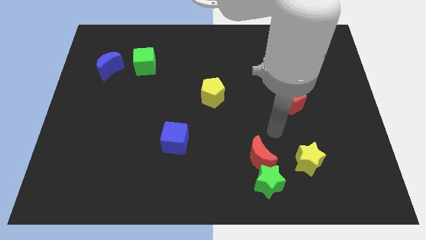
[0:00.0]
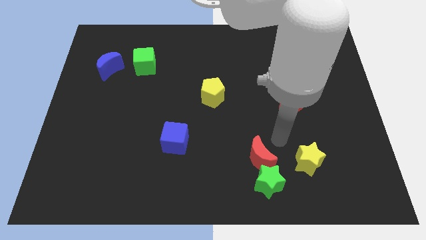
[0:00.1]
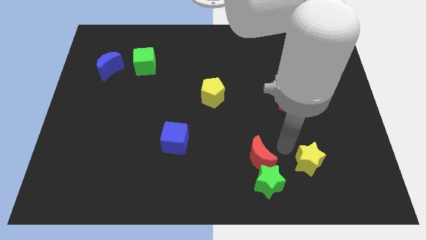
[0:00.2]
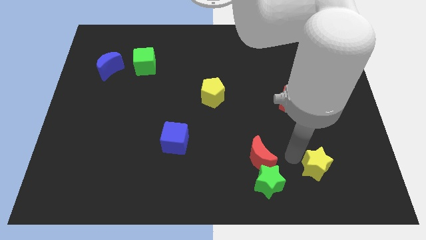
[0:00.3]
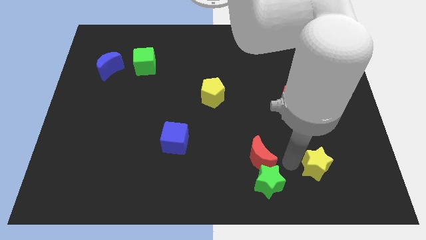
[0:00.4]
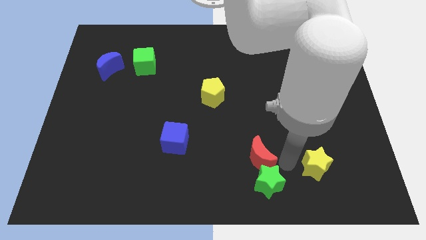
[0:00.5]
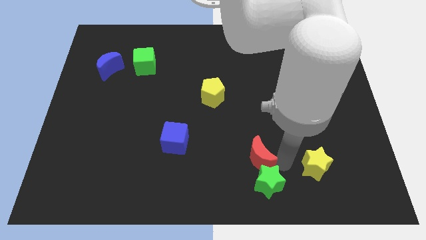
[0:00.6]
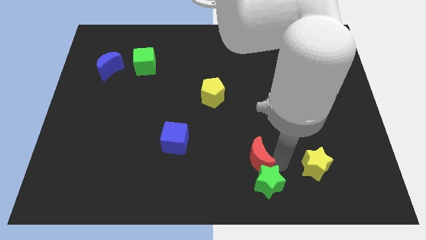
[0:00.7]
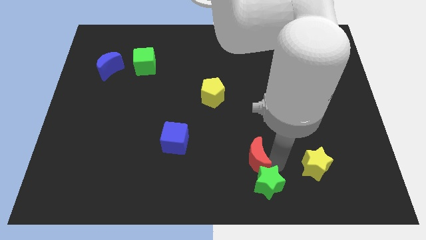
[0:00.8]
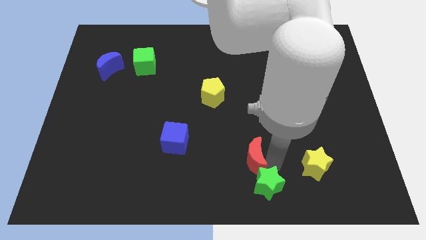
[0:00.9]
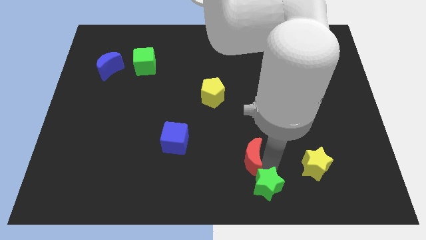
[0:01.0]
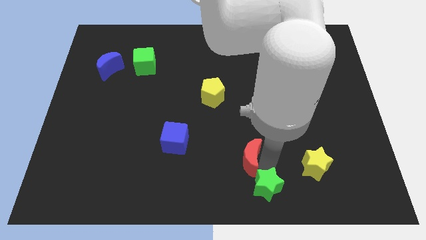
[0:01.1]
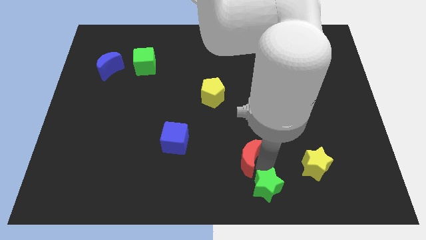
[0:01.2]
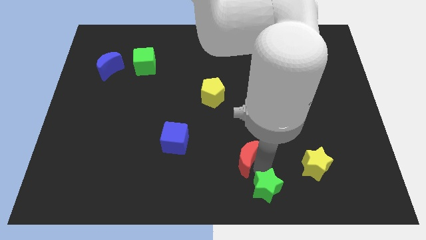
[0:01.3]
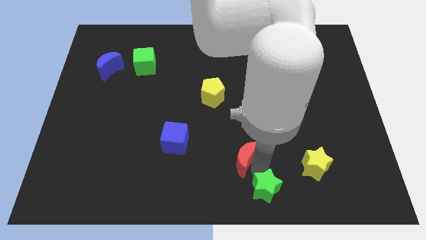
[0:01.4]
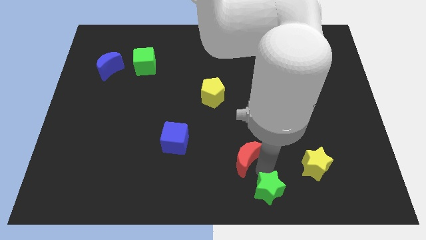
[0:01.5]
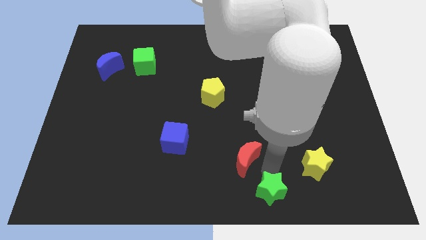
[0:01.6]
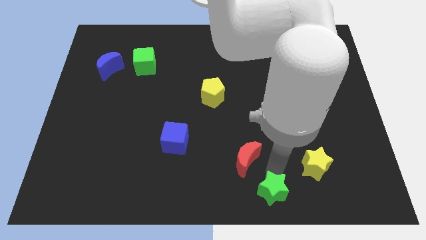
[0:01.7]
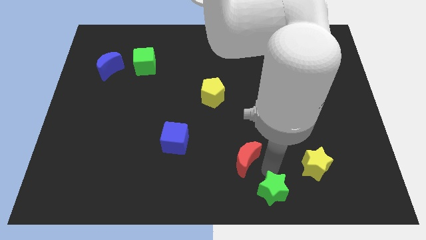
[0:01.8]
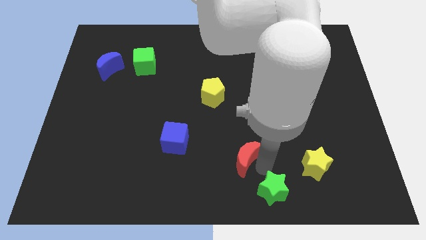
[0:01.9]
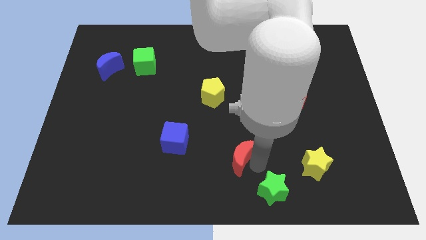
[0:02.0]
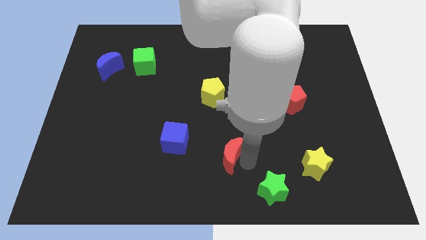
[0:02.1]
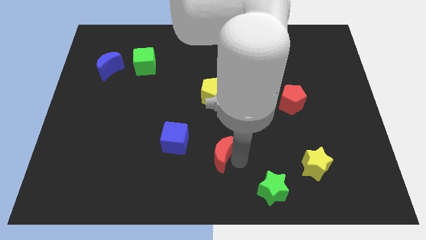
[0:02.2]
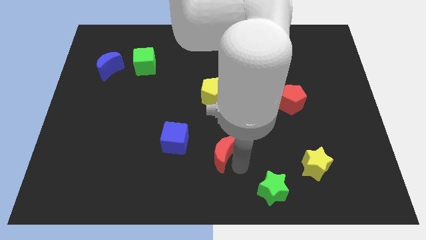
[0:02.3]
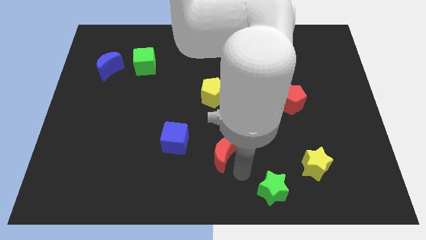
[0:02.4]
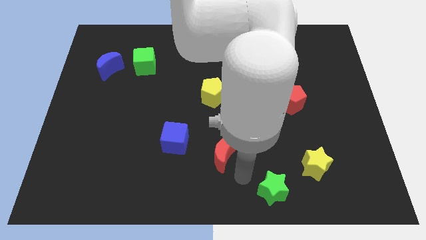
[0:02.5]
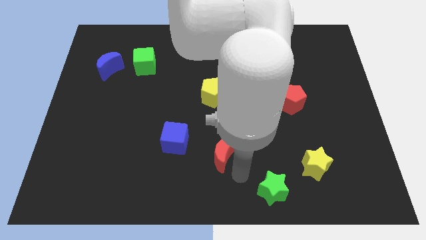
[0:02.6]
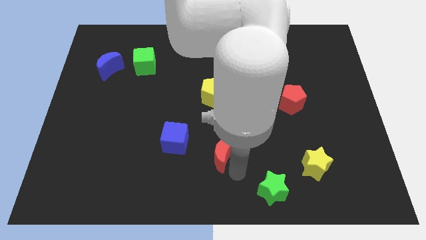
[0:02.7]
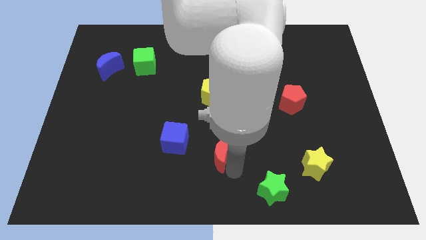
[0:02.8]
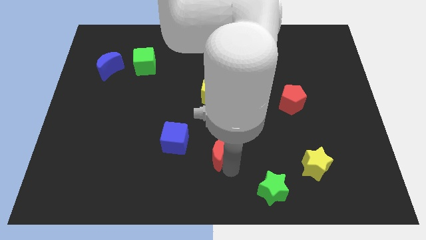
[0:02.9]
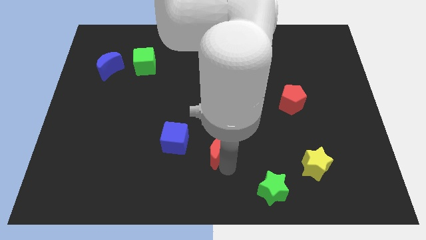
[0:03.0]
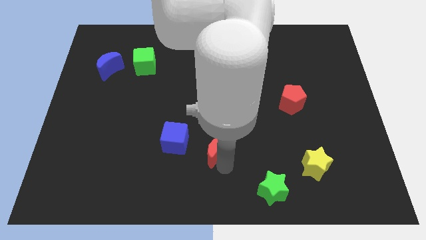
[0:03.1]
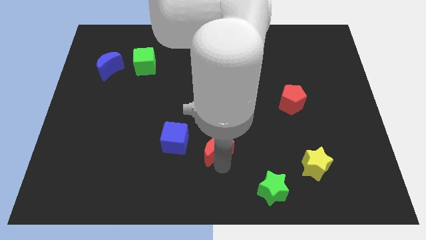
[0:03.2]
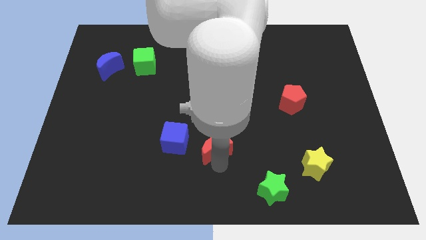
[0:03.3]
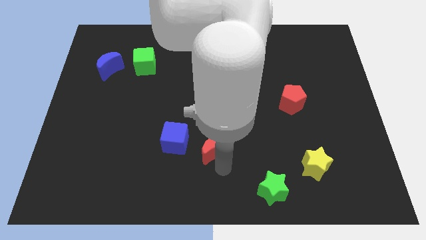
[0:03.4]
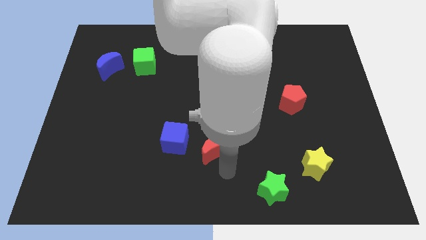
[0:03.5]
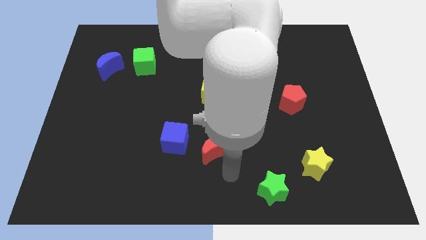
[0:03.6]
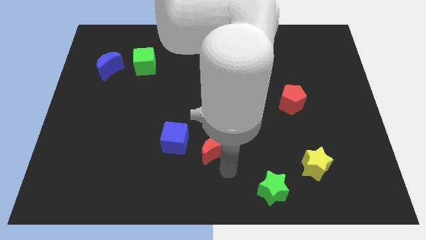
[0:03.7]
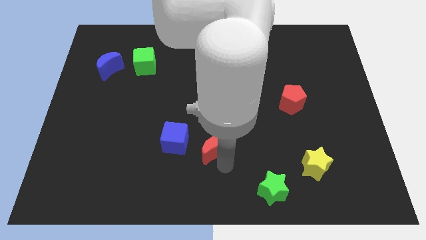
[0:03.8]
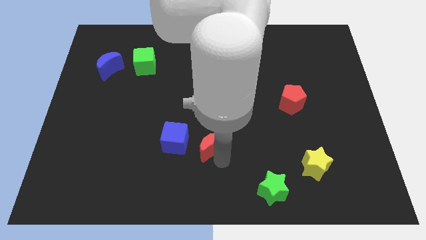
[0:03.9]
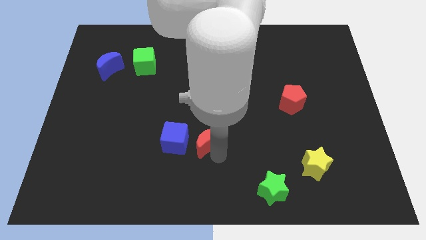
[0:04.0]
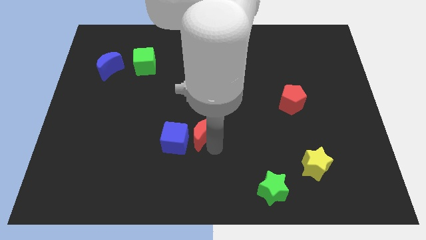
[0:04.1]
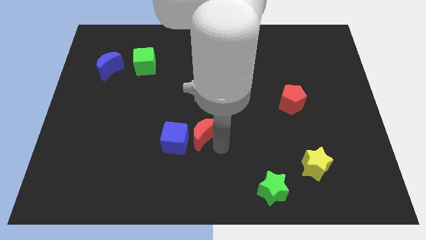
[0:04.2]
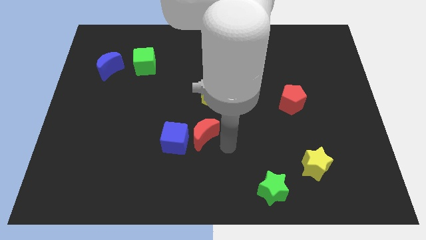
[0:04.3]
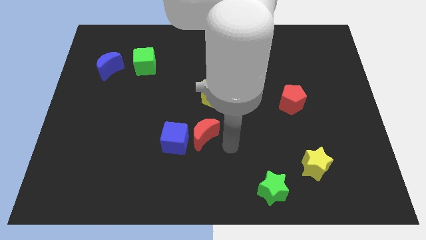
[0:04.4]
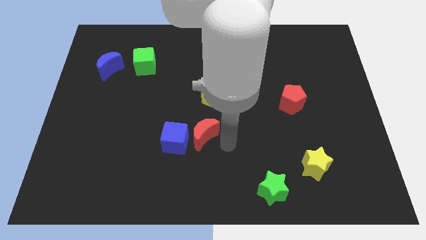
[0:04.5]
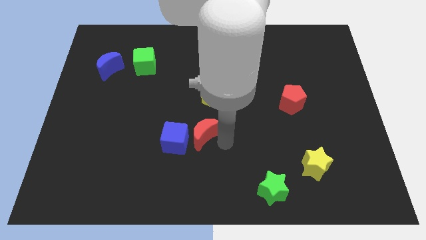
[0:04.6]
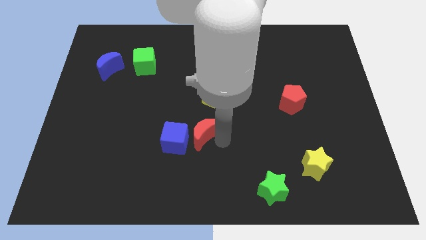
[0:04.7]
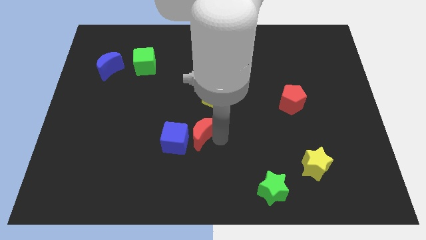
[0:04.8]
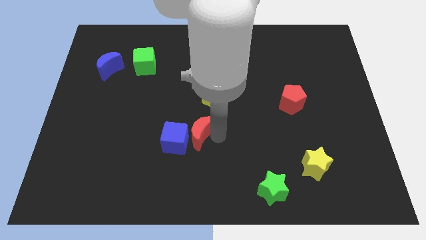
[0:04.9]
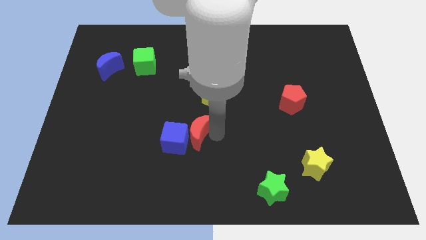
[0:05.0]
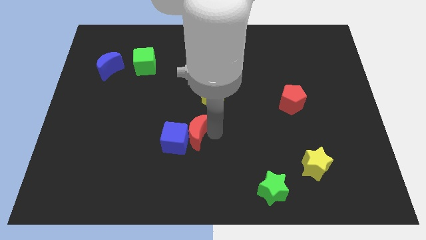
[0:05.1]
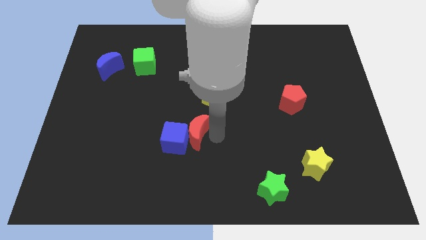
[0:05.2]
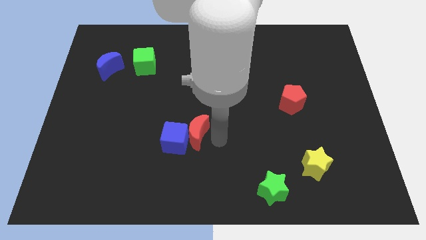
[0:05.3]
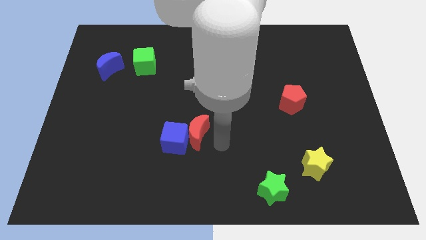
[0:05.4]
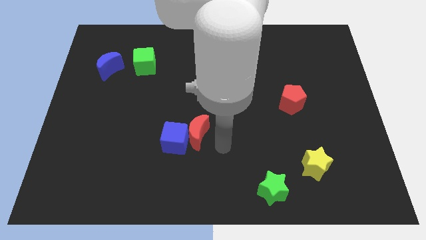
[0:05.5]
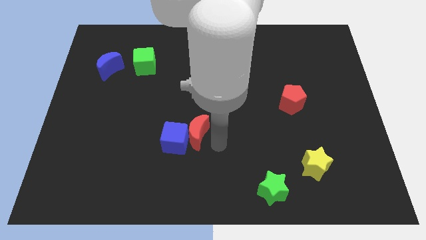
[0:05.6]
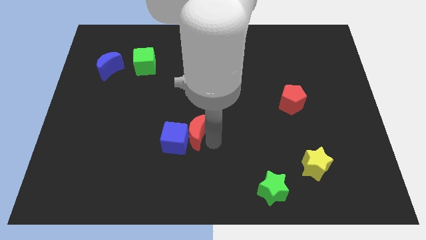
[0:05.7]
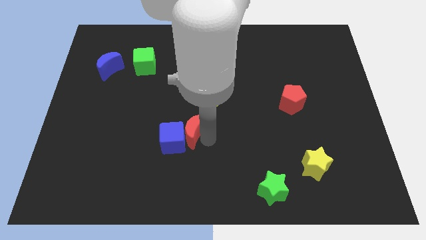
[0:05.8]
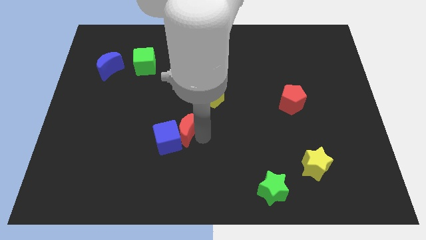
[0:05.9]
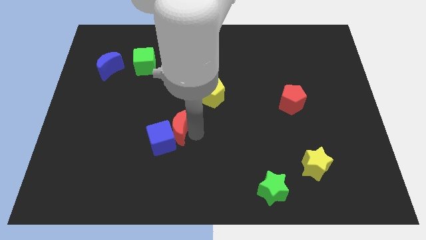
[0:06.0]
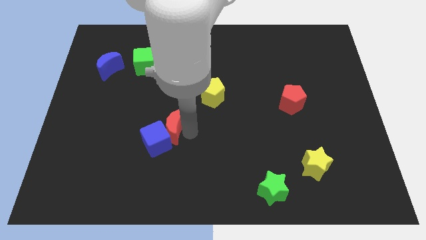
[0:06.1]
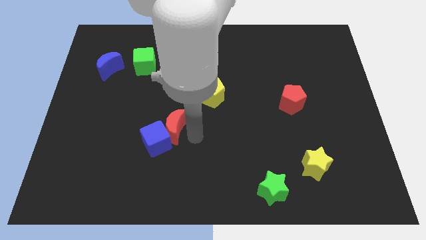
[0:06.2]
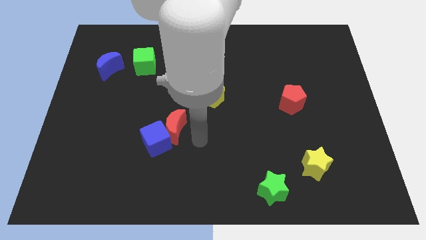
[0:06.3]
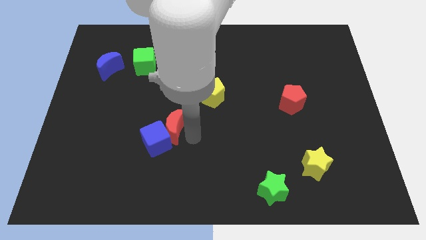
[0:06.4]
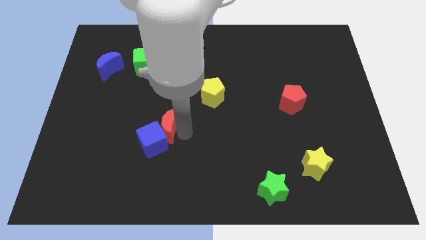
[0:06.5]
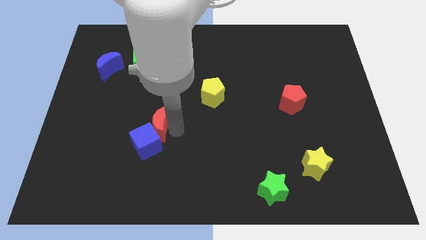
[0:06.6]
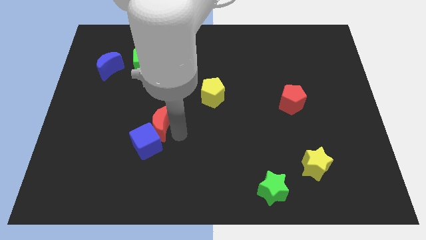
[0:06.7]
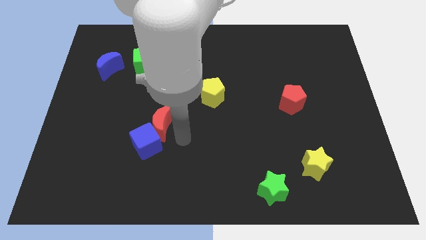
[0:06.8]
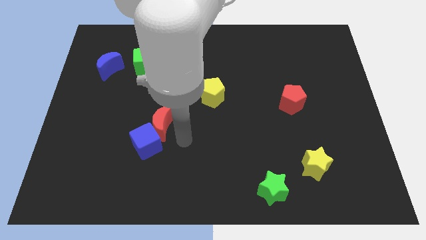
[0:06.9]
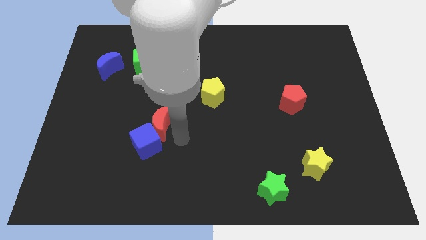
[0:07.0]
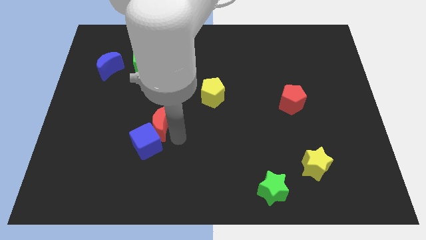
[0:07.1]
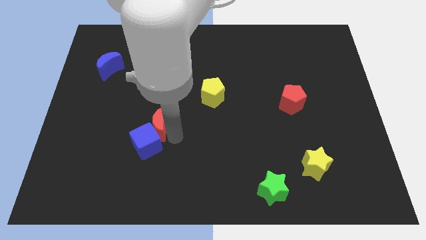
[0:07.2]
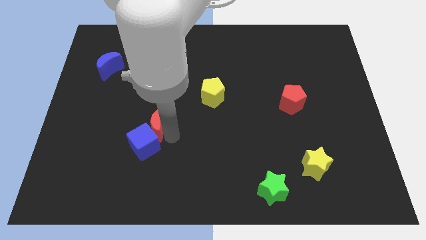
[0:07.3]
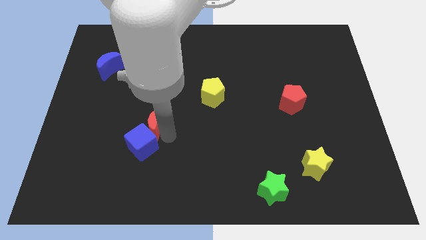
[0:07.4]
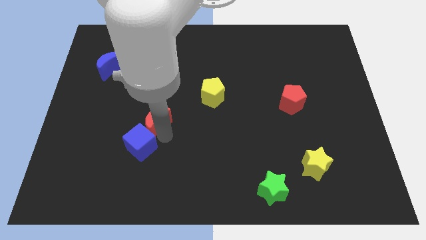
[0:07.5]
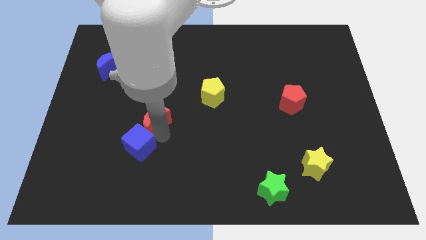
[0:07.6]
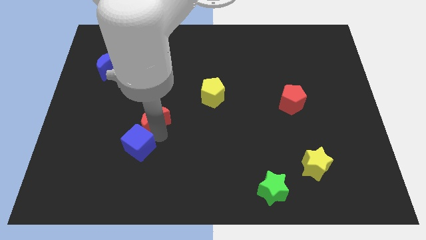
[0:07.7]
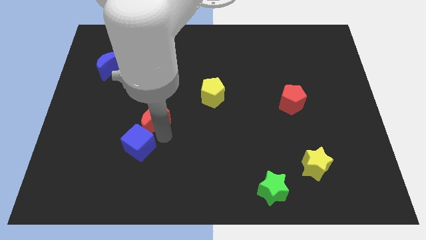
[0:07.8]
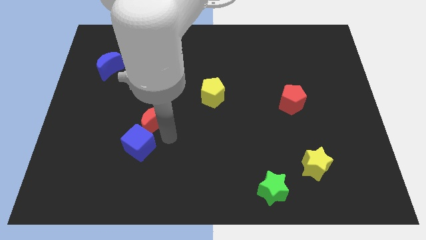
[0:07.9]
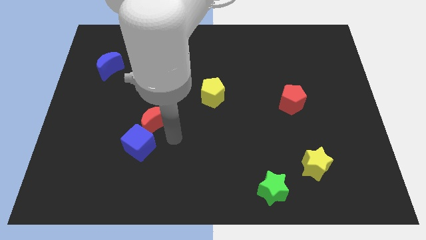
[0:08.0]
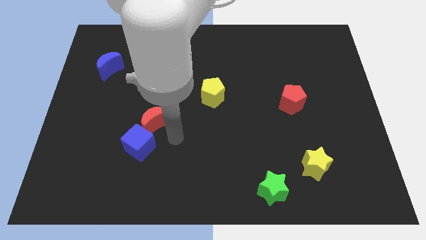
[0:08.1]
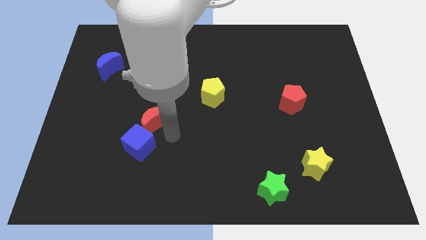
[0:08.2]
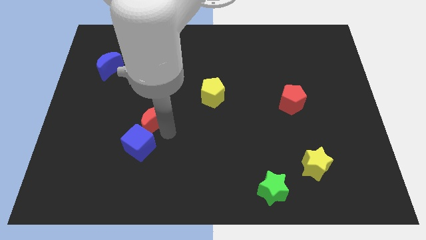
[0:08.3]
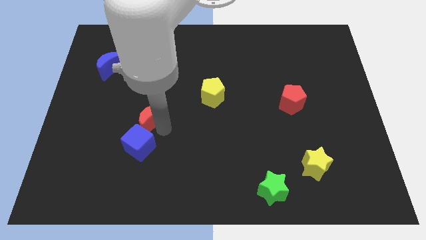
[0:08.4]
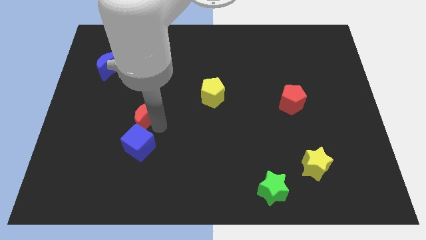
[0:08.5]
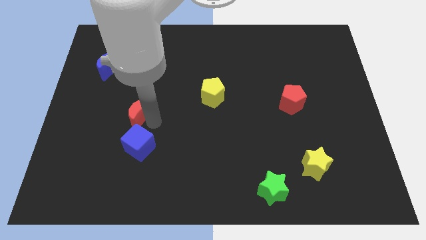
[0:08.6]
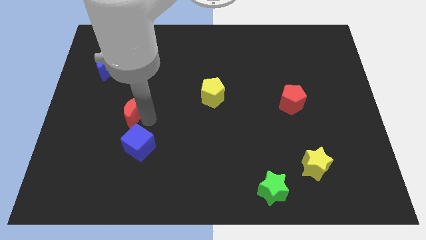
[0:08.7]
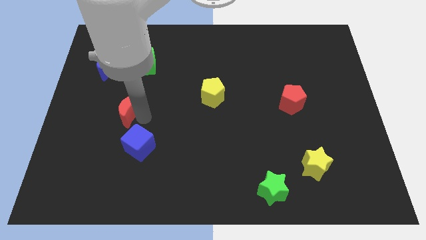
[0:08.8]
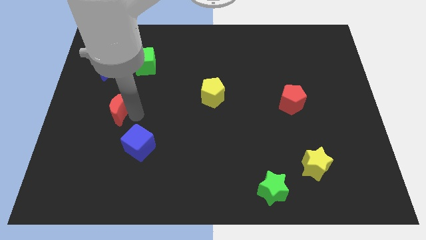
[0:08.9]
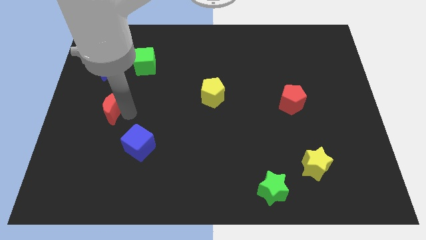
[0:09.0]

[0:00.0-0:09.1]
push the red moon to the bottom side of the blue moon
